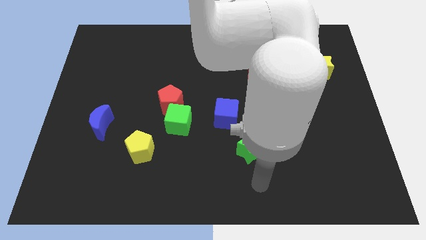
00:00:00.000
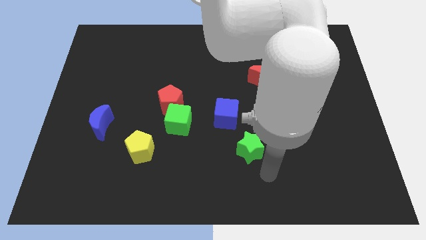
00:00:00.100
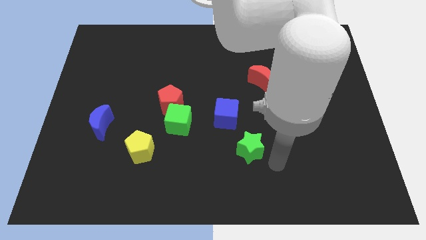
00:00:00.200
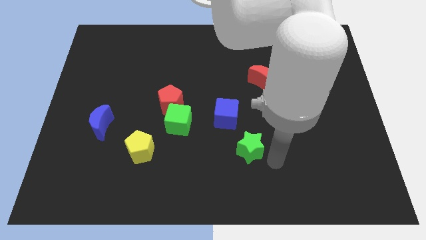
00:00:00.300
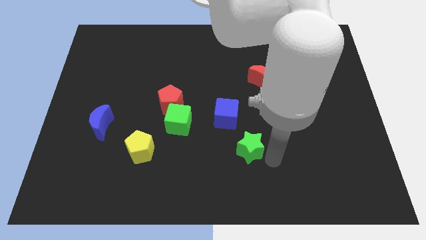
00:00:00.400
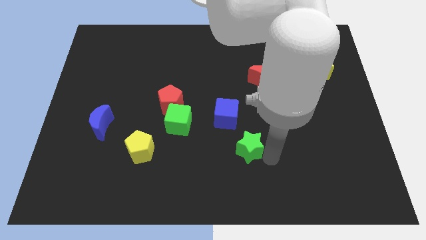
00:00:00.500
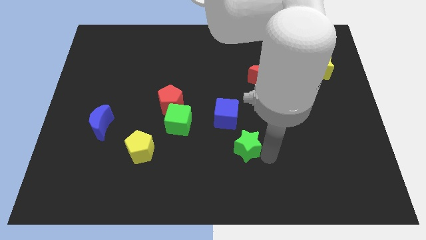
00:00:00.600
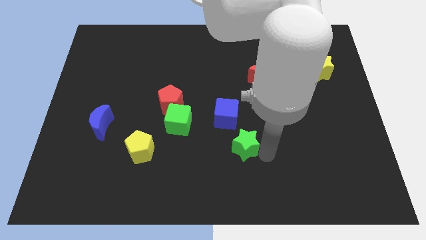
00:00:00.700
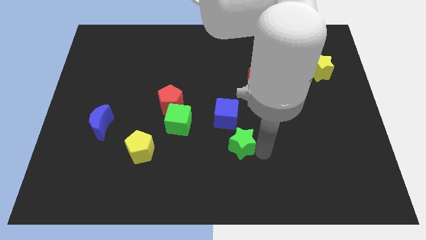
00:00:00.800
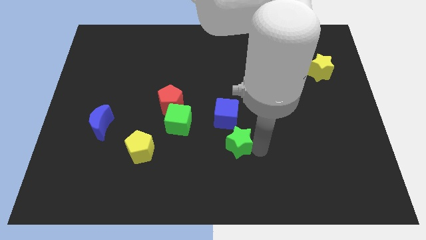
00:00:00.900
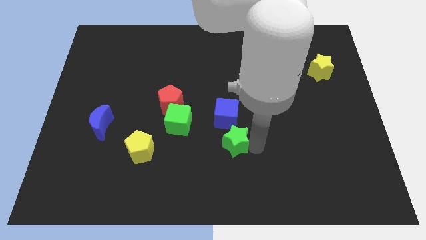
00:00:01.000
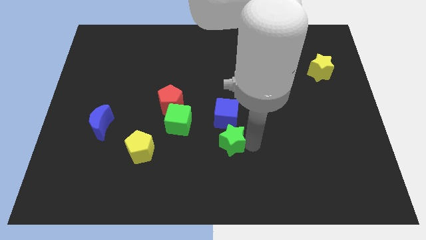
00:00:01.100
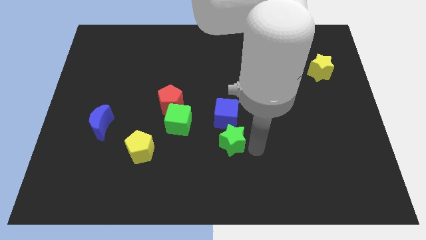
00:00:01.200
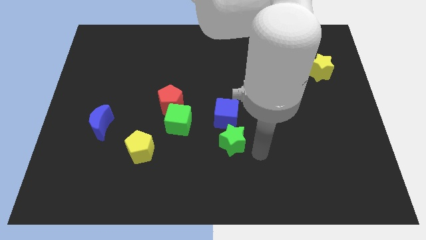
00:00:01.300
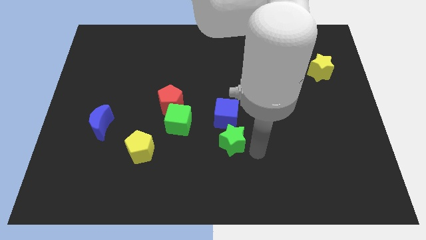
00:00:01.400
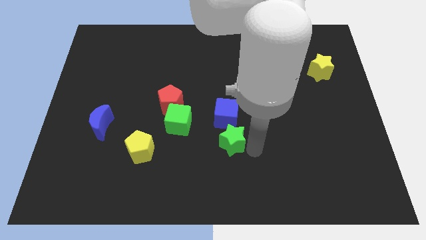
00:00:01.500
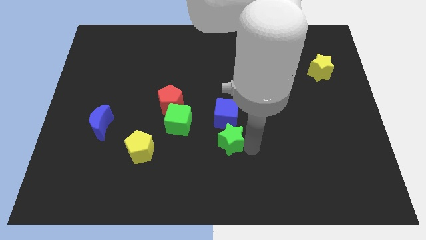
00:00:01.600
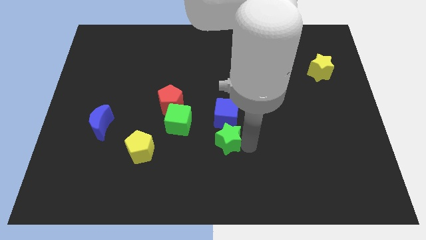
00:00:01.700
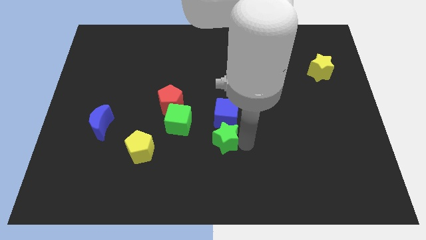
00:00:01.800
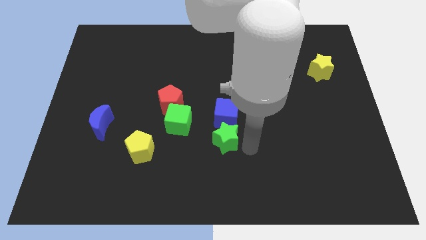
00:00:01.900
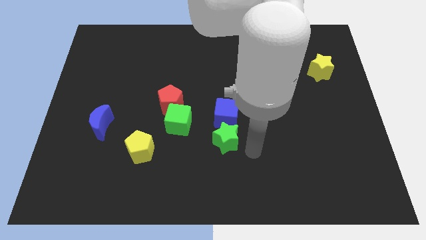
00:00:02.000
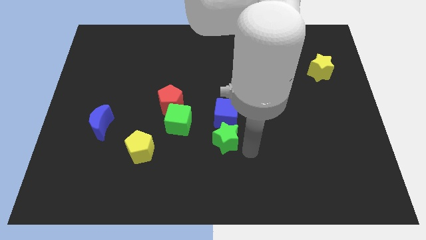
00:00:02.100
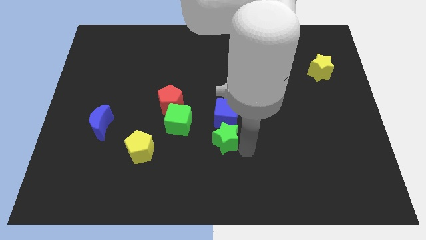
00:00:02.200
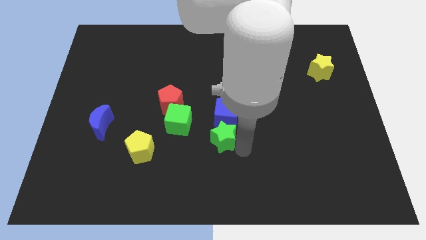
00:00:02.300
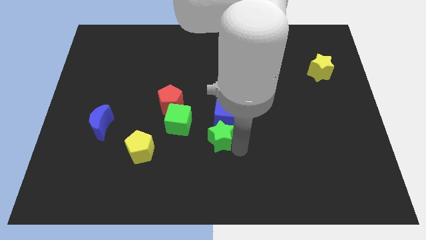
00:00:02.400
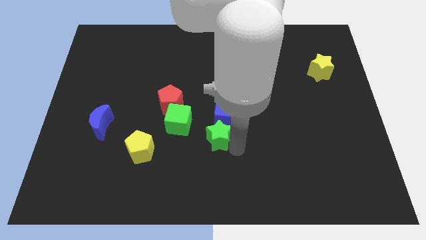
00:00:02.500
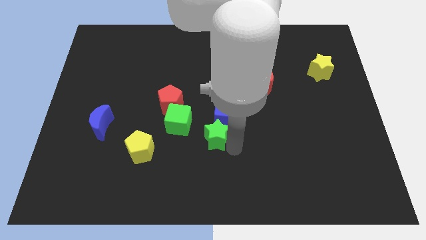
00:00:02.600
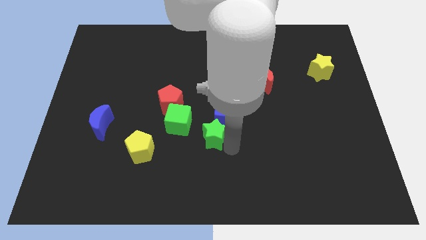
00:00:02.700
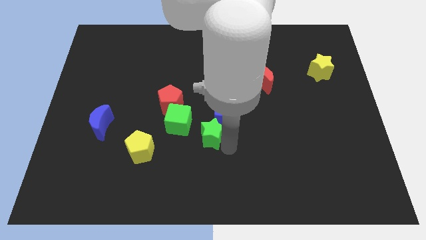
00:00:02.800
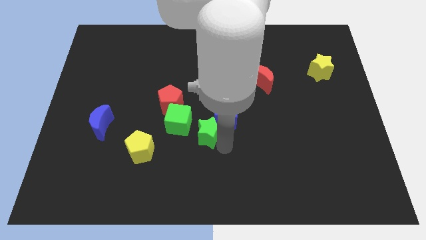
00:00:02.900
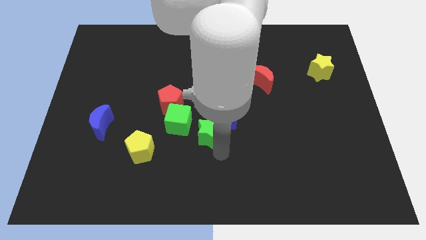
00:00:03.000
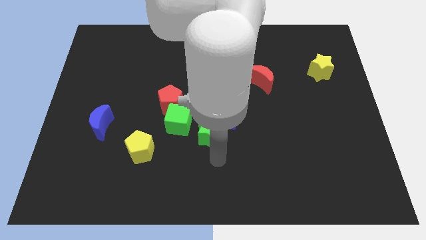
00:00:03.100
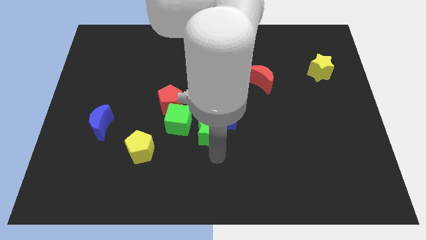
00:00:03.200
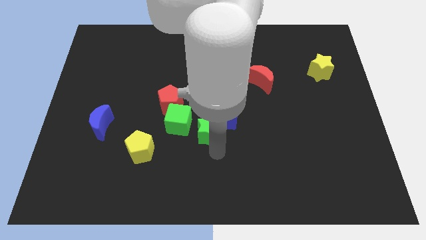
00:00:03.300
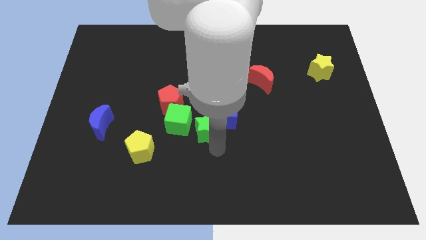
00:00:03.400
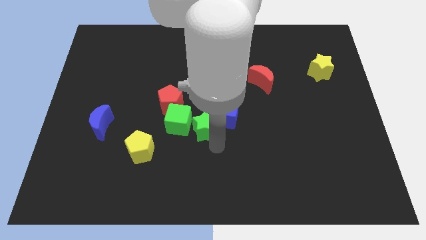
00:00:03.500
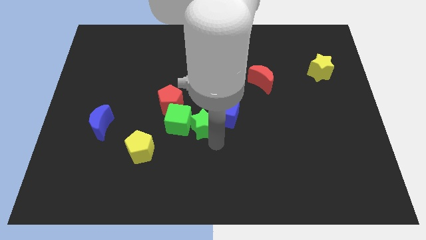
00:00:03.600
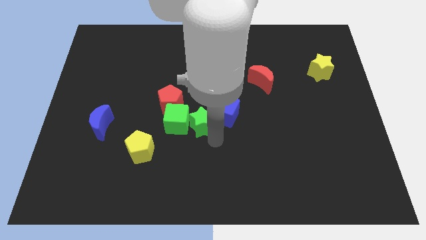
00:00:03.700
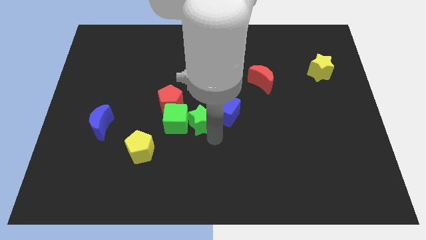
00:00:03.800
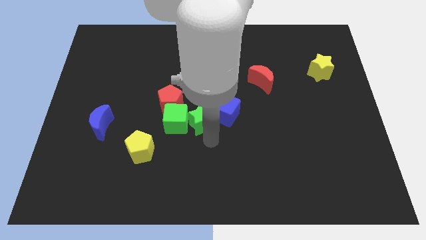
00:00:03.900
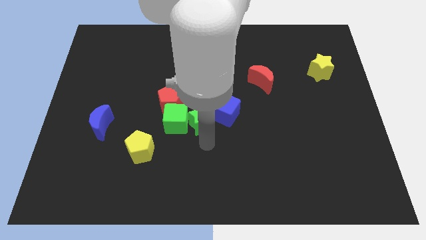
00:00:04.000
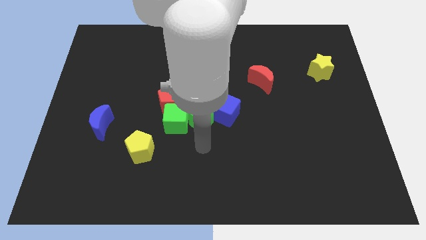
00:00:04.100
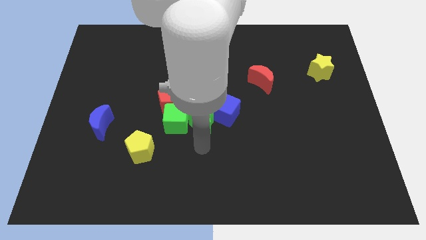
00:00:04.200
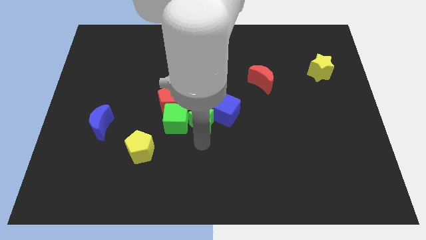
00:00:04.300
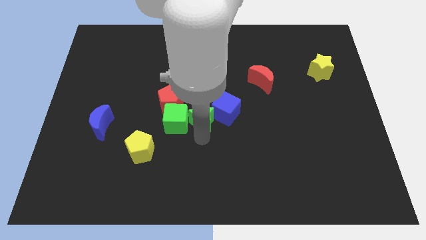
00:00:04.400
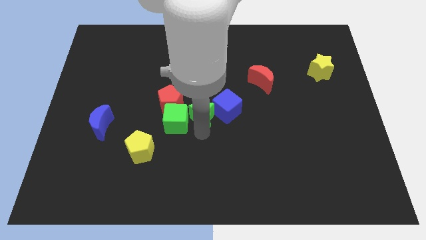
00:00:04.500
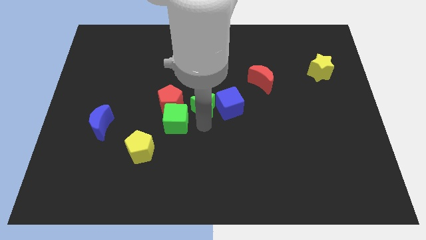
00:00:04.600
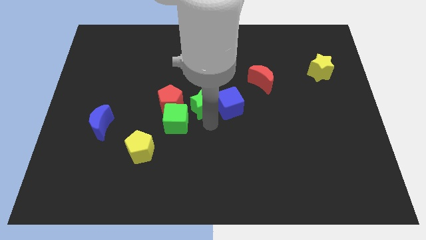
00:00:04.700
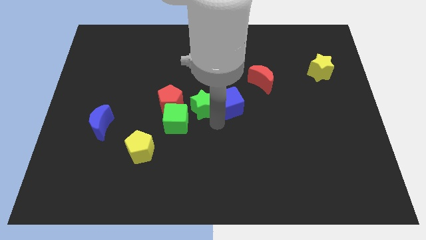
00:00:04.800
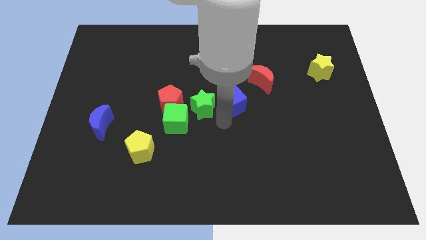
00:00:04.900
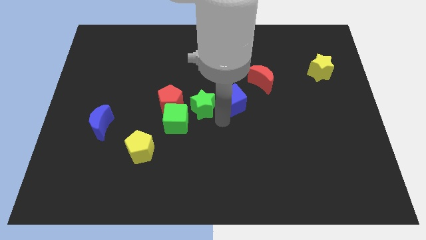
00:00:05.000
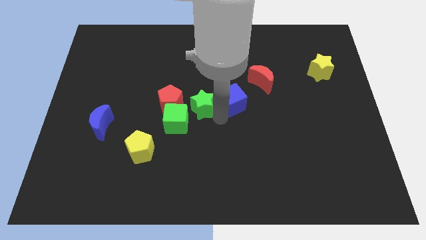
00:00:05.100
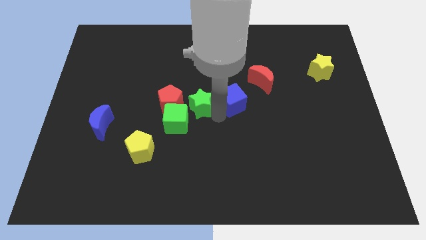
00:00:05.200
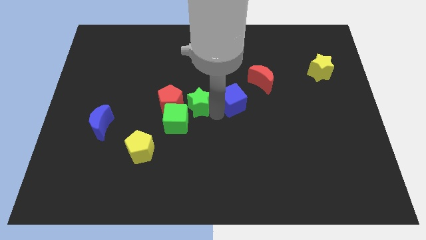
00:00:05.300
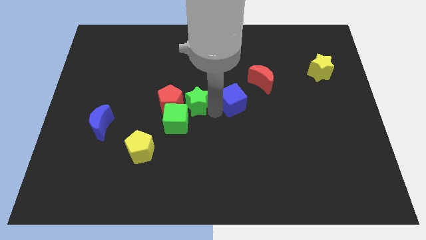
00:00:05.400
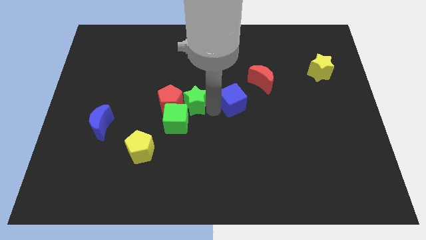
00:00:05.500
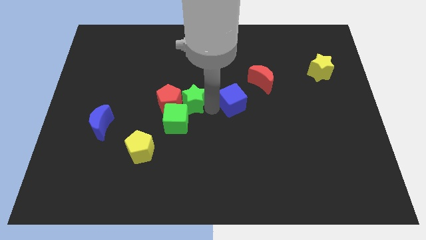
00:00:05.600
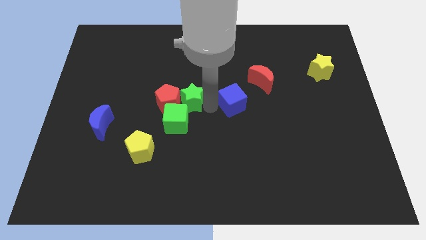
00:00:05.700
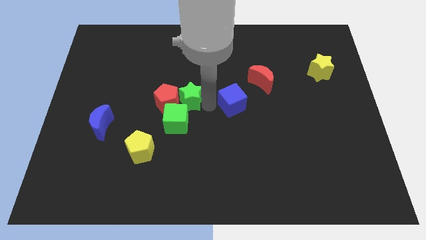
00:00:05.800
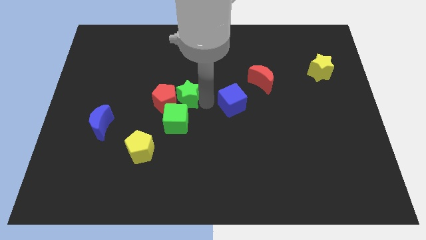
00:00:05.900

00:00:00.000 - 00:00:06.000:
move the green star up and then to the left

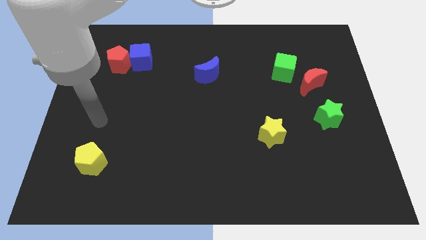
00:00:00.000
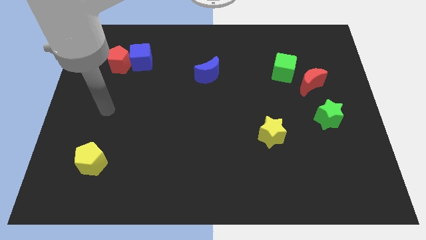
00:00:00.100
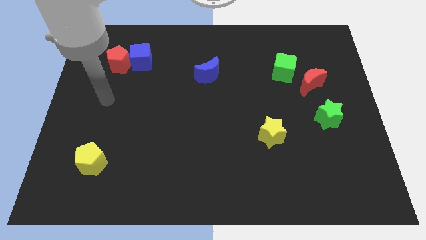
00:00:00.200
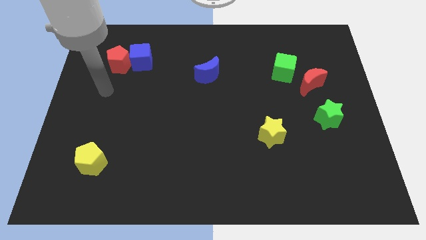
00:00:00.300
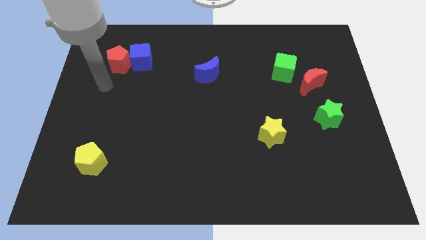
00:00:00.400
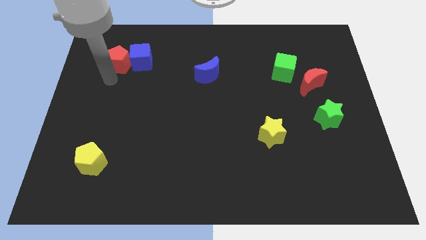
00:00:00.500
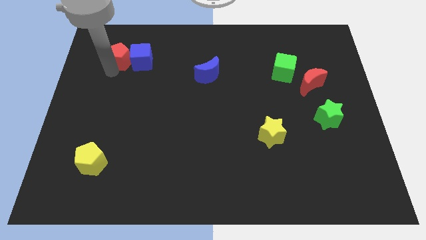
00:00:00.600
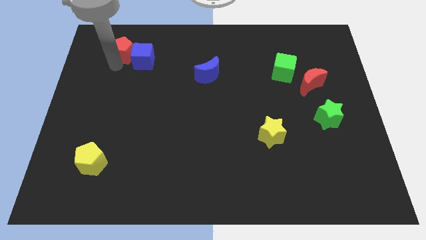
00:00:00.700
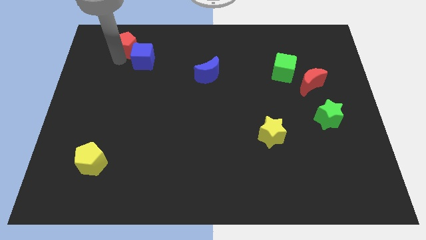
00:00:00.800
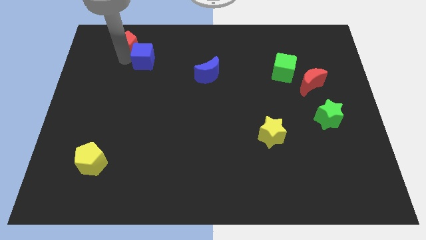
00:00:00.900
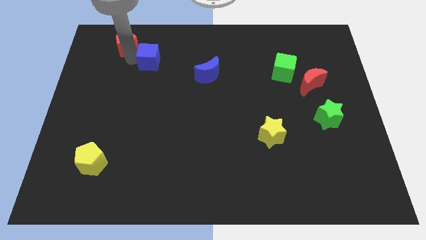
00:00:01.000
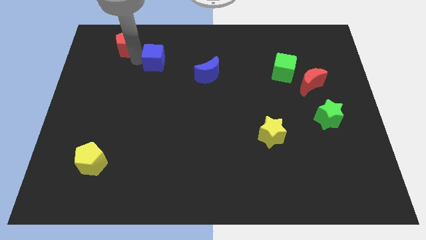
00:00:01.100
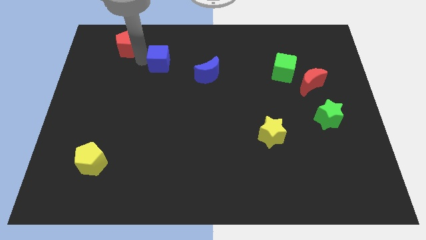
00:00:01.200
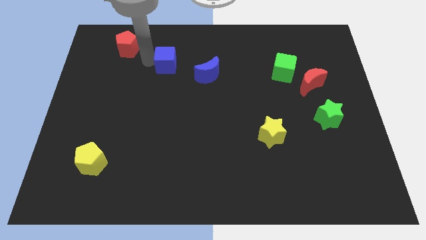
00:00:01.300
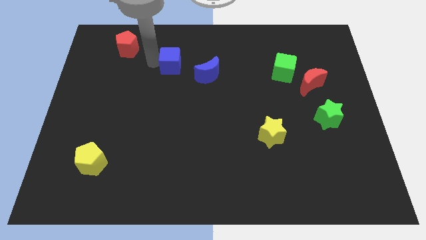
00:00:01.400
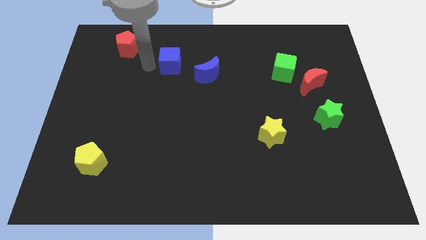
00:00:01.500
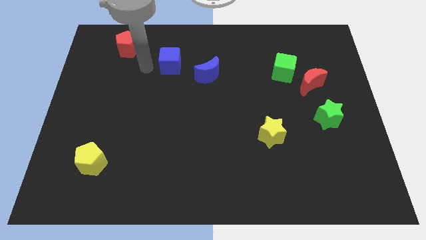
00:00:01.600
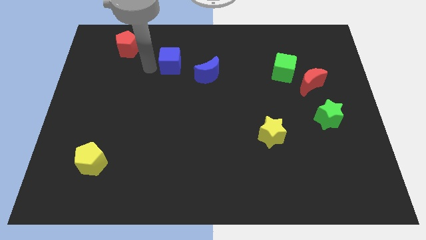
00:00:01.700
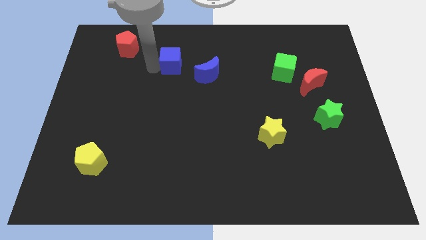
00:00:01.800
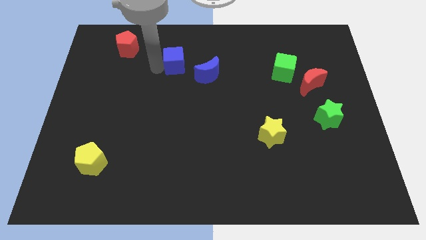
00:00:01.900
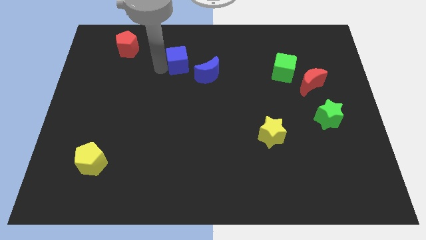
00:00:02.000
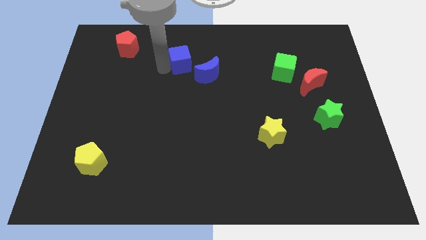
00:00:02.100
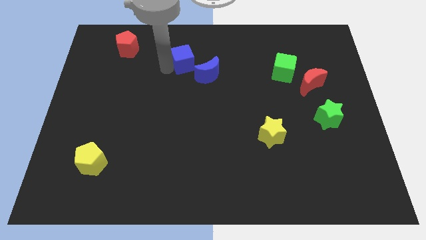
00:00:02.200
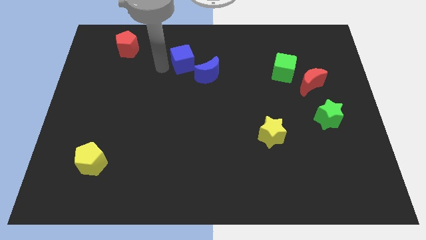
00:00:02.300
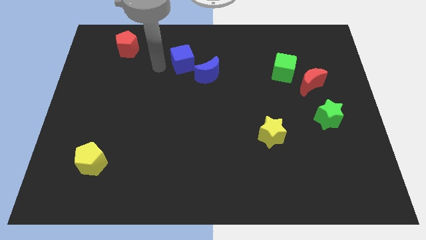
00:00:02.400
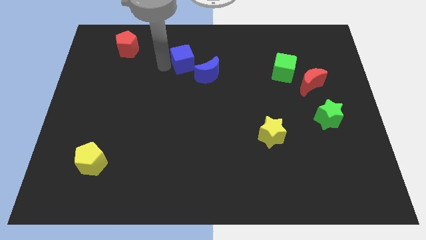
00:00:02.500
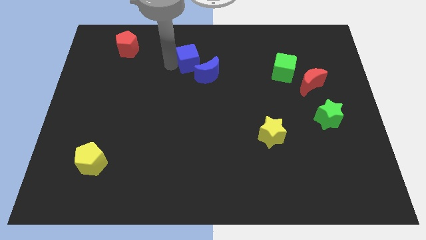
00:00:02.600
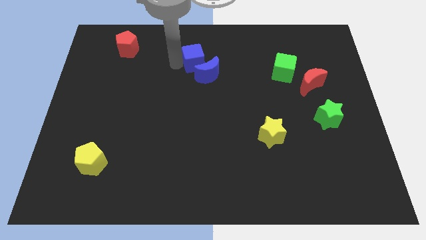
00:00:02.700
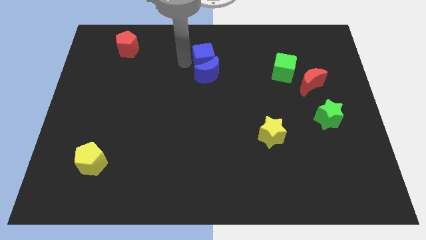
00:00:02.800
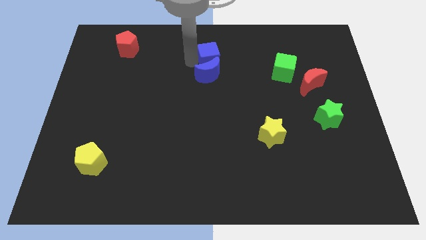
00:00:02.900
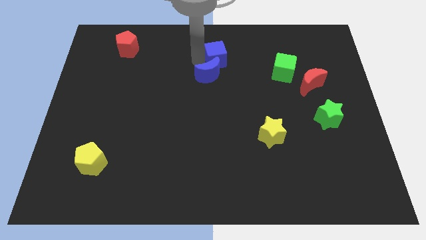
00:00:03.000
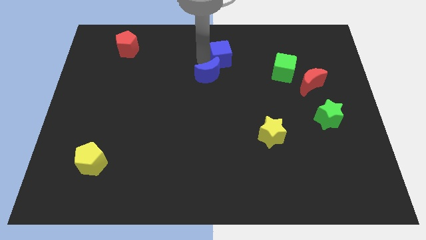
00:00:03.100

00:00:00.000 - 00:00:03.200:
move the blue cube to the right
